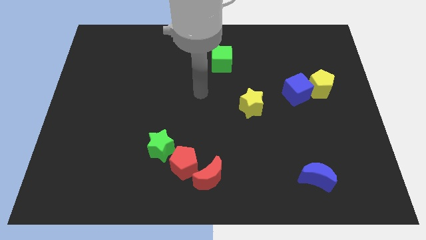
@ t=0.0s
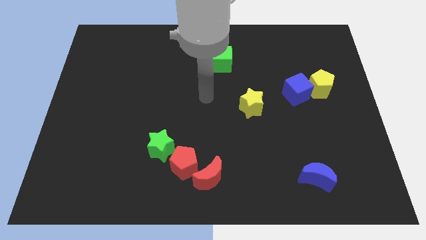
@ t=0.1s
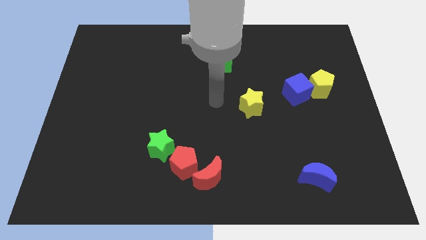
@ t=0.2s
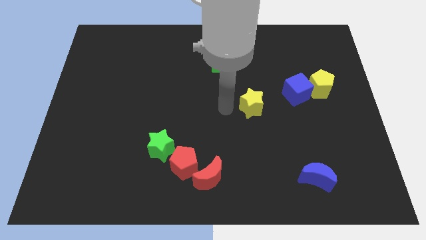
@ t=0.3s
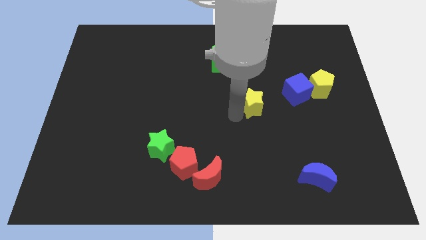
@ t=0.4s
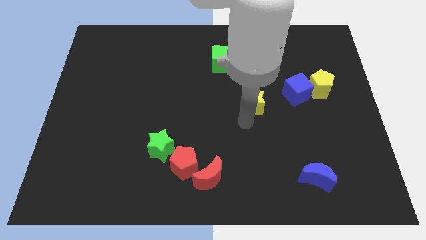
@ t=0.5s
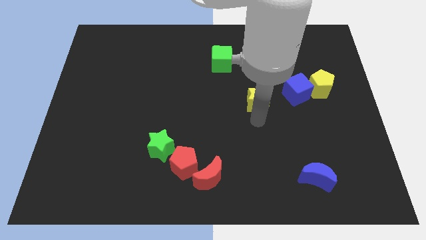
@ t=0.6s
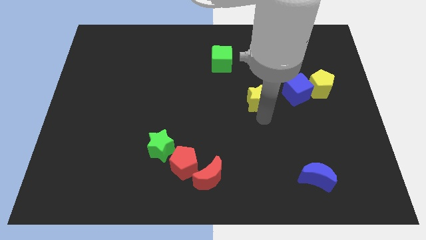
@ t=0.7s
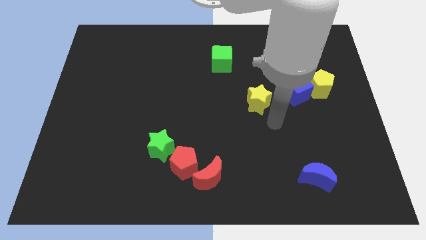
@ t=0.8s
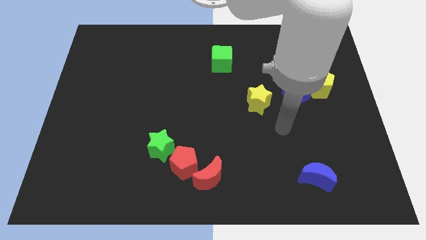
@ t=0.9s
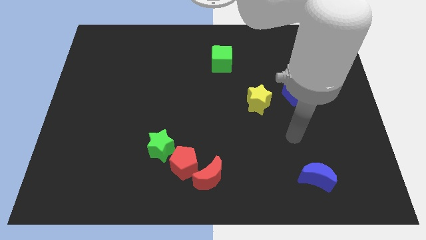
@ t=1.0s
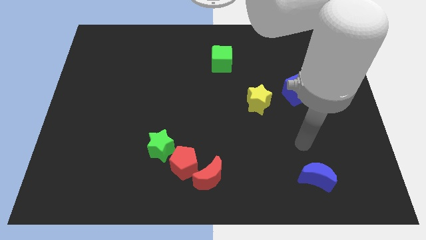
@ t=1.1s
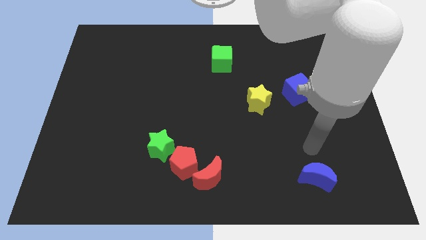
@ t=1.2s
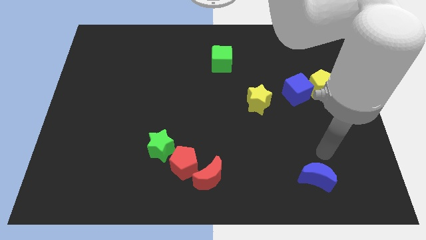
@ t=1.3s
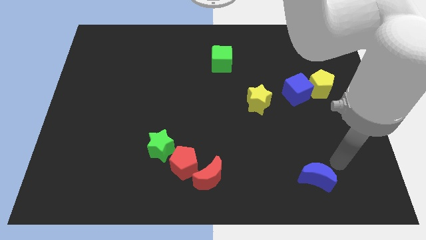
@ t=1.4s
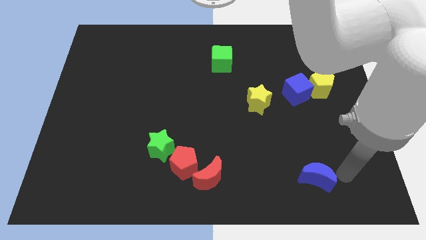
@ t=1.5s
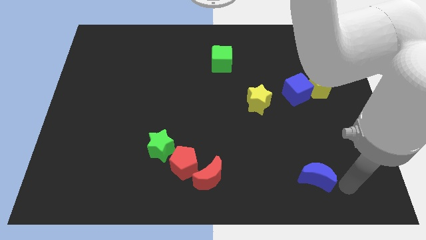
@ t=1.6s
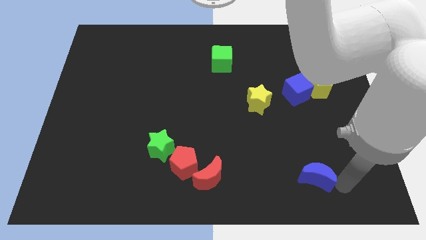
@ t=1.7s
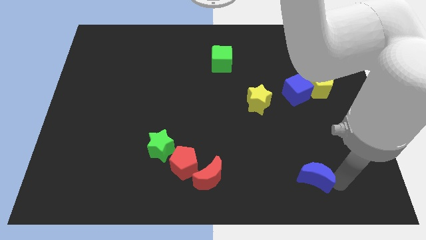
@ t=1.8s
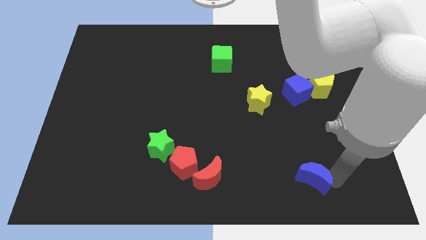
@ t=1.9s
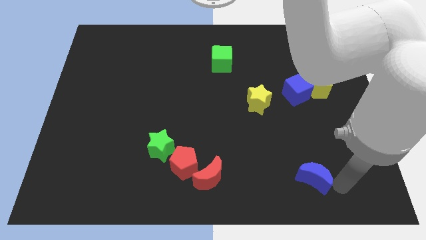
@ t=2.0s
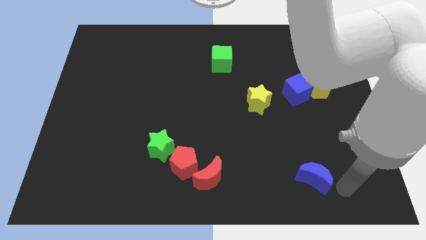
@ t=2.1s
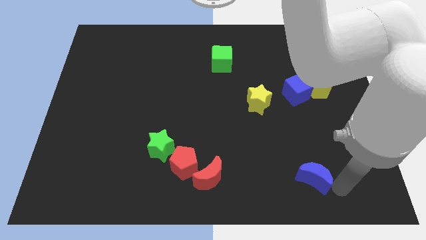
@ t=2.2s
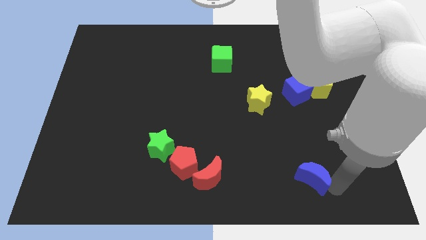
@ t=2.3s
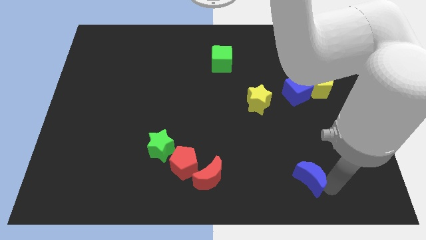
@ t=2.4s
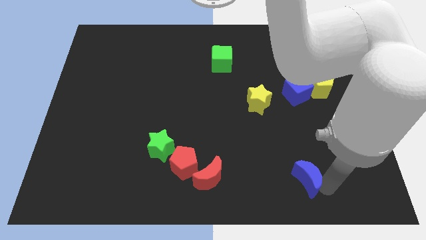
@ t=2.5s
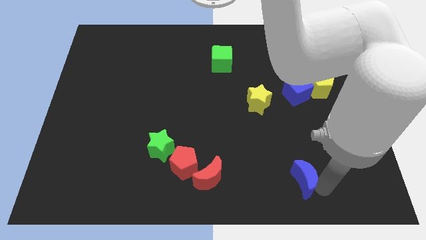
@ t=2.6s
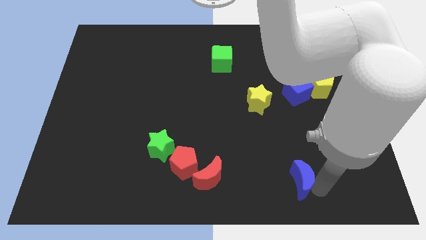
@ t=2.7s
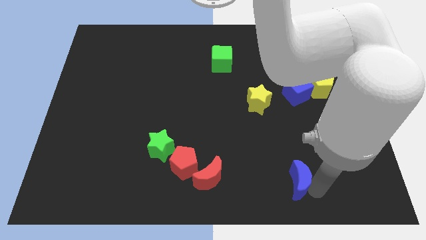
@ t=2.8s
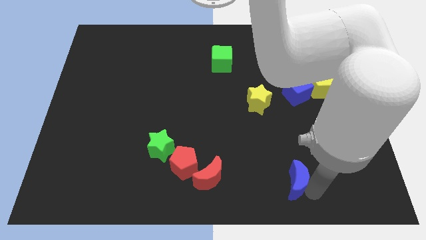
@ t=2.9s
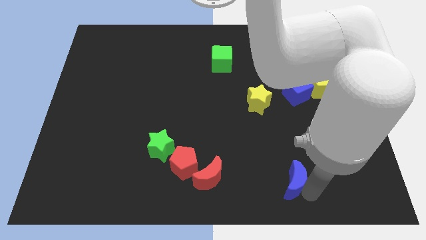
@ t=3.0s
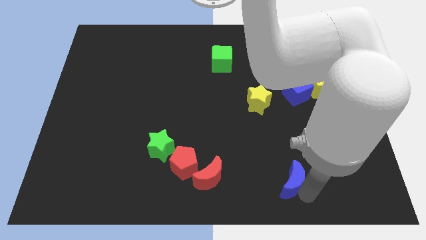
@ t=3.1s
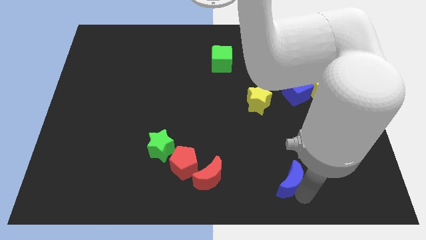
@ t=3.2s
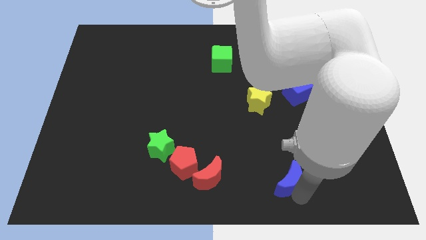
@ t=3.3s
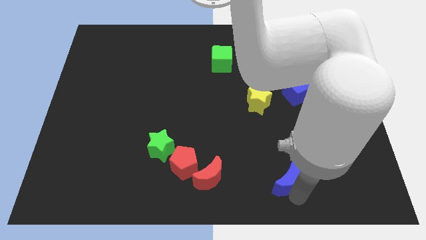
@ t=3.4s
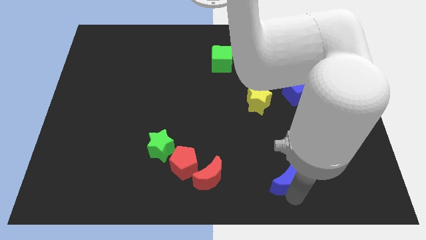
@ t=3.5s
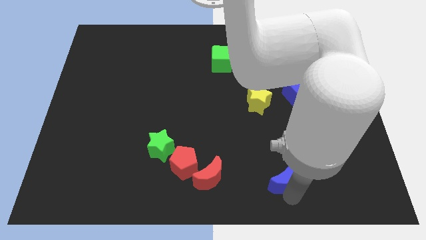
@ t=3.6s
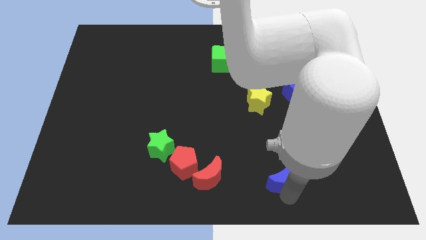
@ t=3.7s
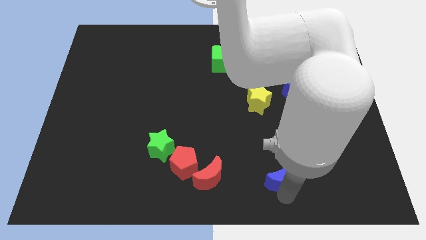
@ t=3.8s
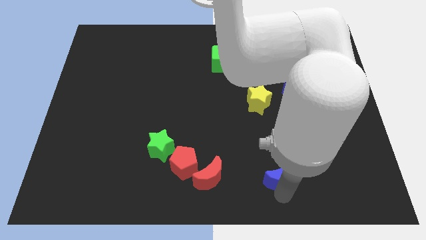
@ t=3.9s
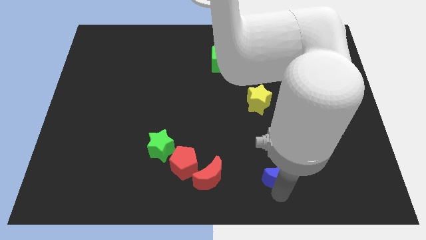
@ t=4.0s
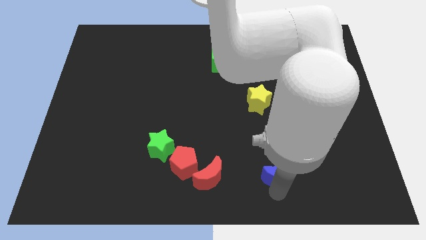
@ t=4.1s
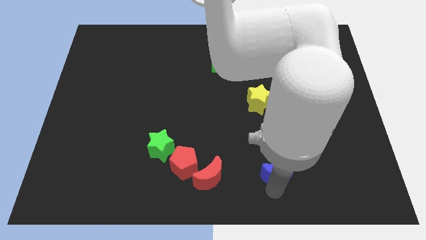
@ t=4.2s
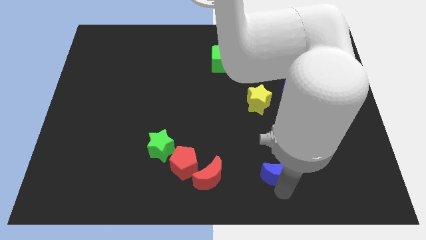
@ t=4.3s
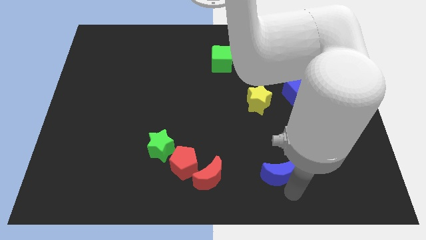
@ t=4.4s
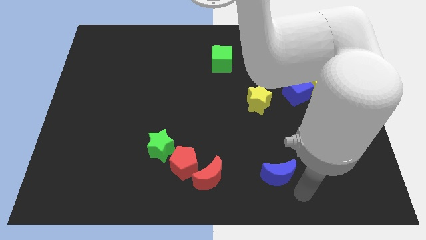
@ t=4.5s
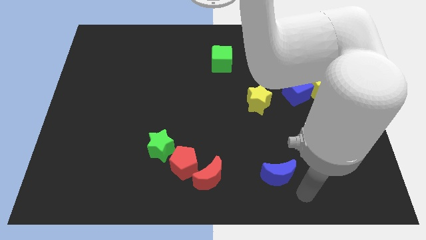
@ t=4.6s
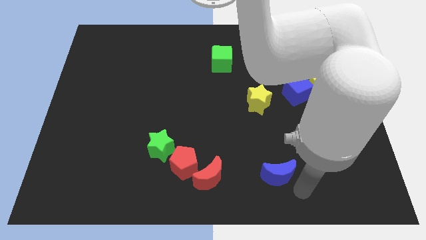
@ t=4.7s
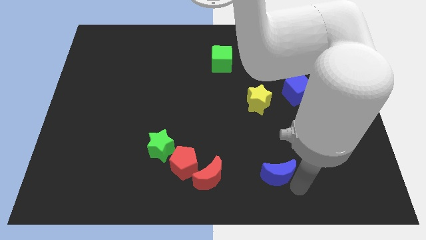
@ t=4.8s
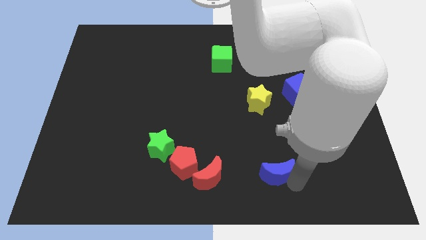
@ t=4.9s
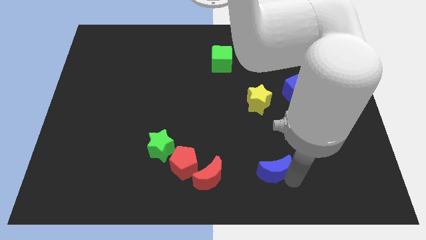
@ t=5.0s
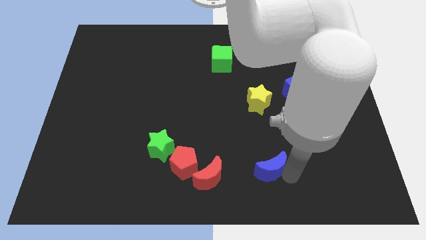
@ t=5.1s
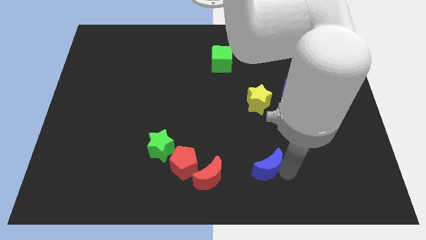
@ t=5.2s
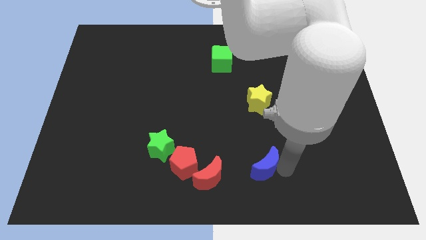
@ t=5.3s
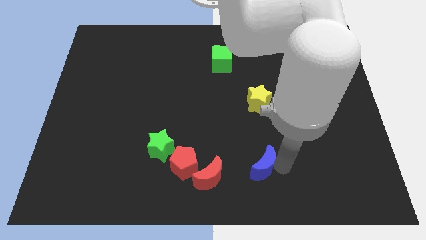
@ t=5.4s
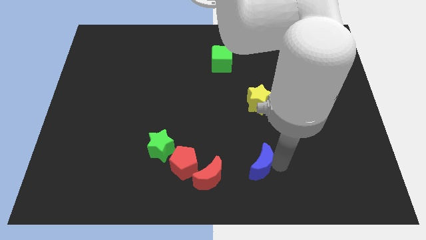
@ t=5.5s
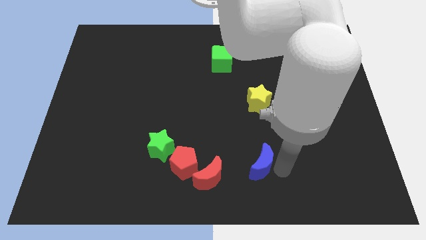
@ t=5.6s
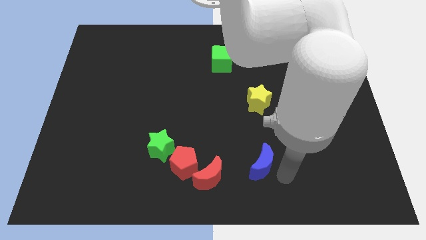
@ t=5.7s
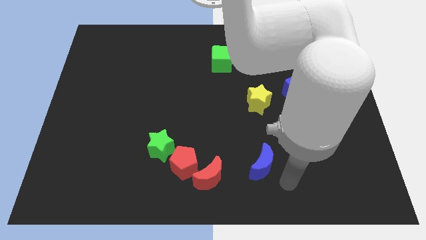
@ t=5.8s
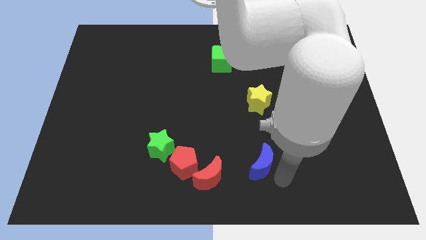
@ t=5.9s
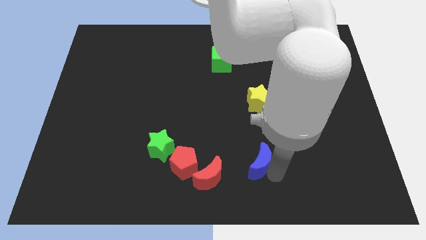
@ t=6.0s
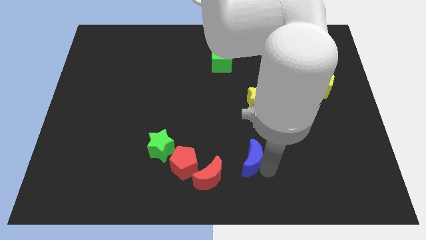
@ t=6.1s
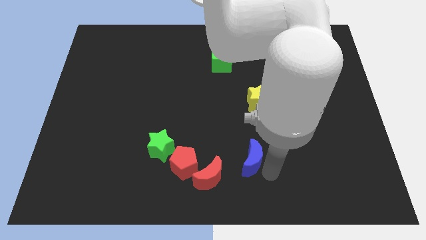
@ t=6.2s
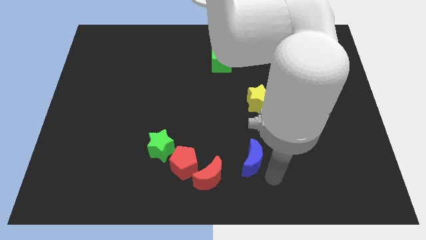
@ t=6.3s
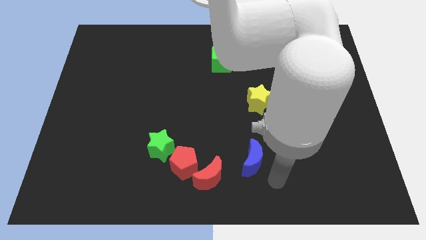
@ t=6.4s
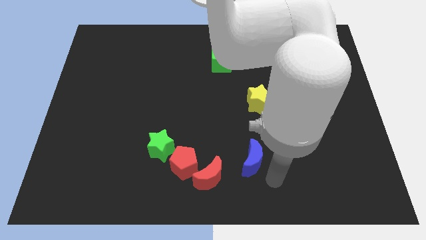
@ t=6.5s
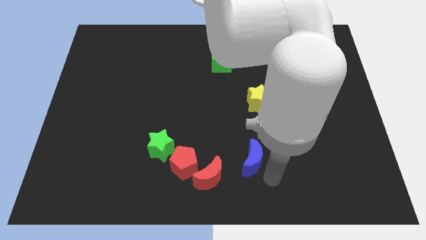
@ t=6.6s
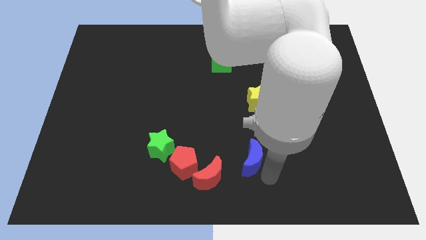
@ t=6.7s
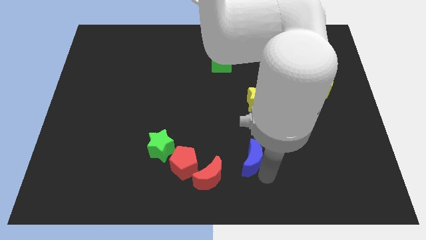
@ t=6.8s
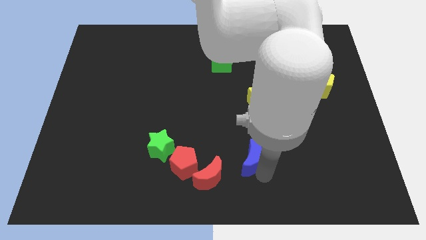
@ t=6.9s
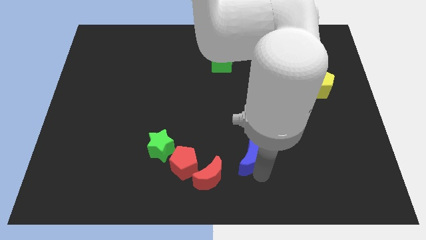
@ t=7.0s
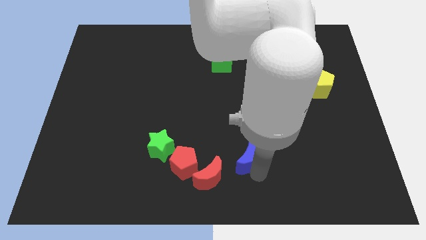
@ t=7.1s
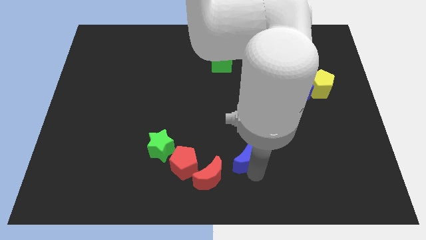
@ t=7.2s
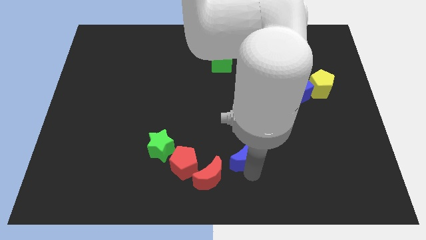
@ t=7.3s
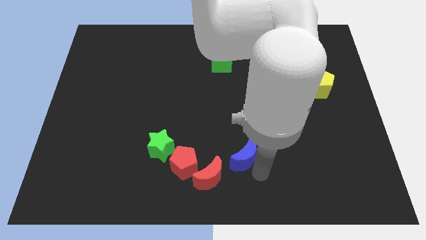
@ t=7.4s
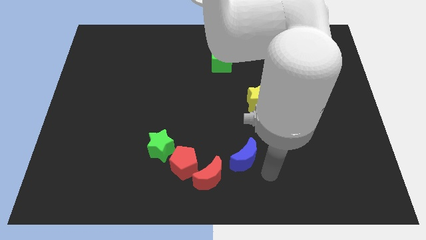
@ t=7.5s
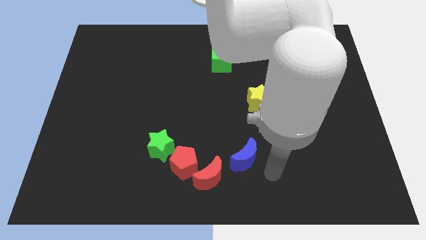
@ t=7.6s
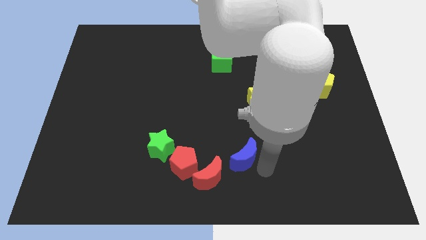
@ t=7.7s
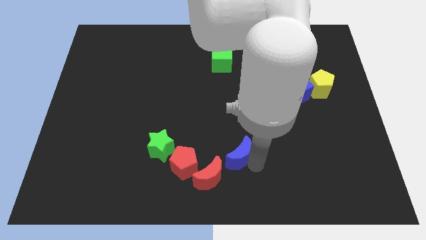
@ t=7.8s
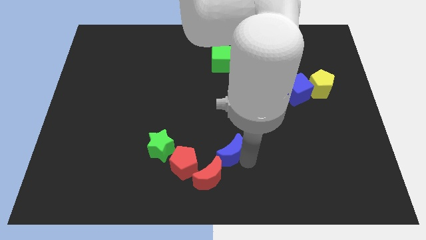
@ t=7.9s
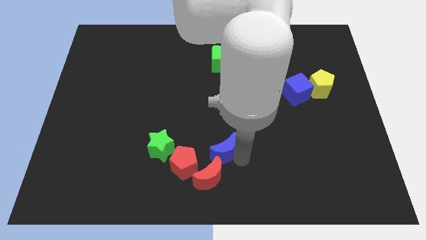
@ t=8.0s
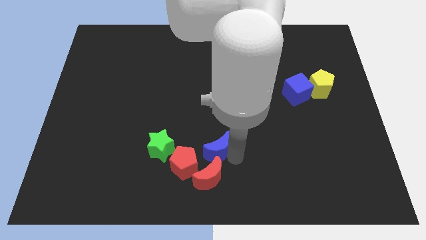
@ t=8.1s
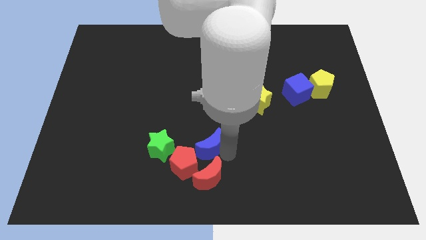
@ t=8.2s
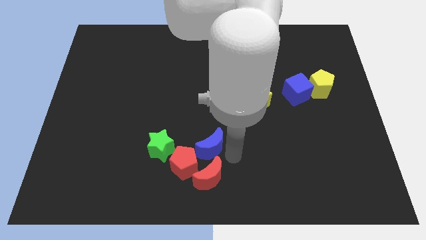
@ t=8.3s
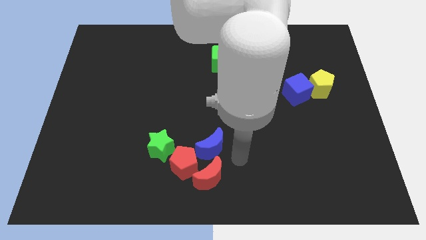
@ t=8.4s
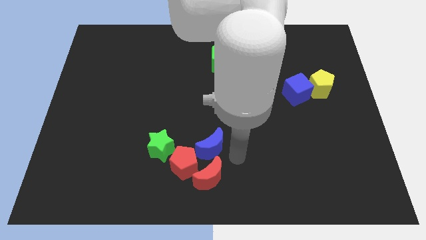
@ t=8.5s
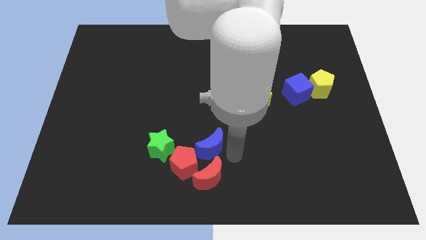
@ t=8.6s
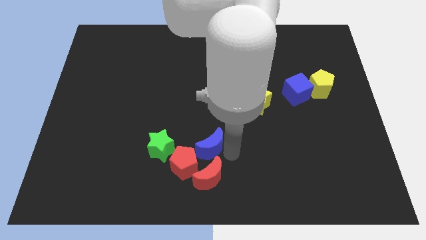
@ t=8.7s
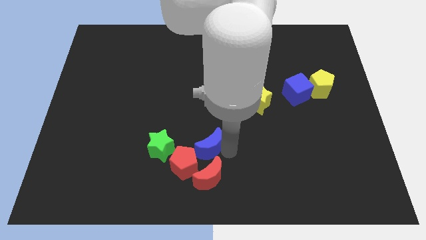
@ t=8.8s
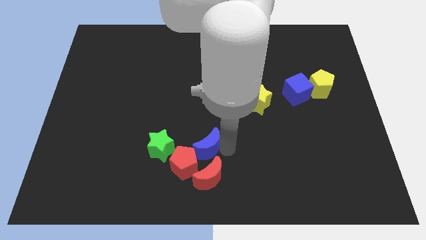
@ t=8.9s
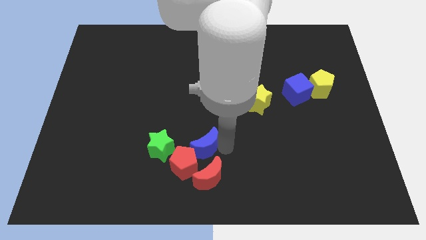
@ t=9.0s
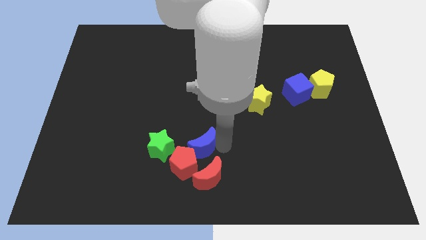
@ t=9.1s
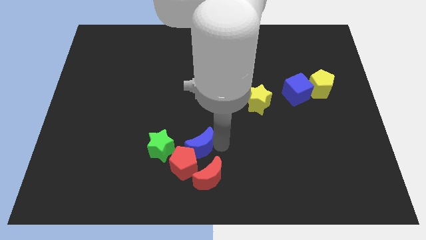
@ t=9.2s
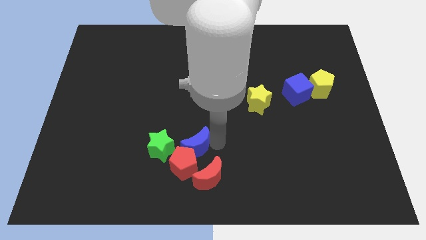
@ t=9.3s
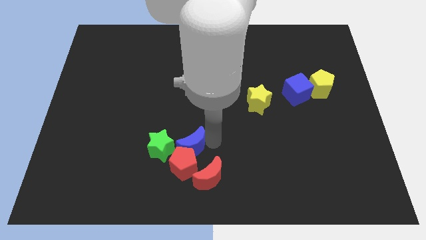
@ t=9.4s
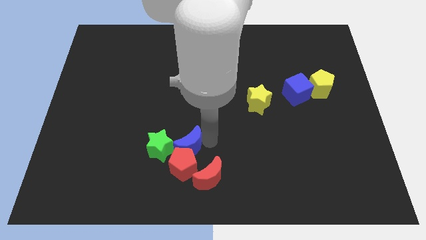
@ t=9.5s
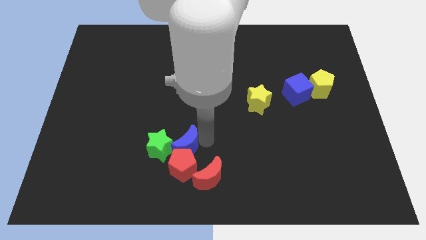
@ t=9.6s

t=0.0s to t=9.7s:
slide the blue moon next to the green star
